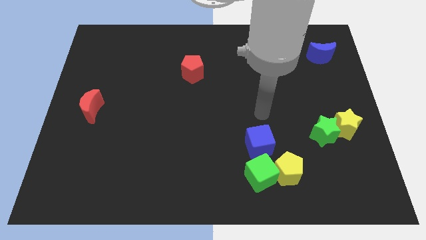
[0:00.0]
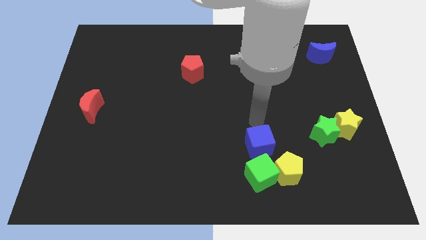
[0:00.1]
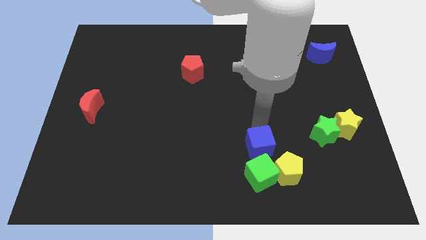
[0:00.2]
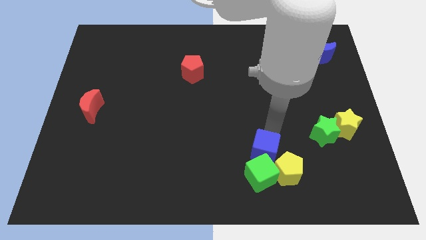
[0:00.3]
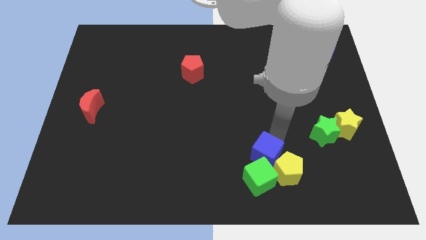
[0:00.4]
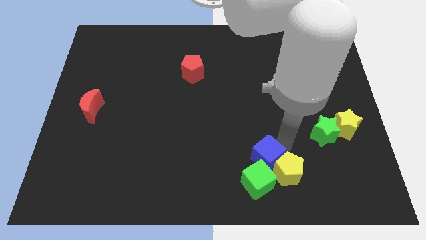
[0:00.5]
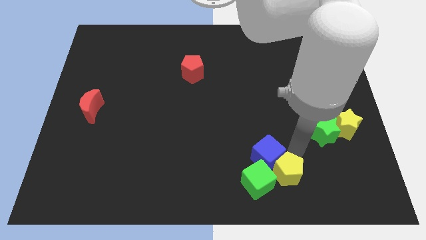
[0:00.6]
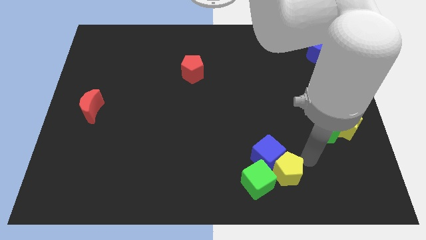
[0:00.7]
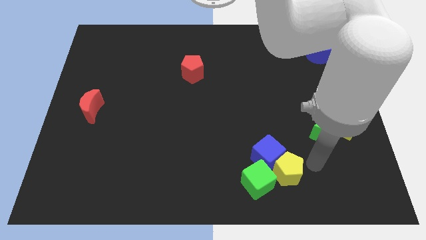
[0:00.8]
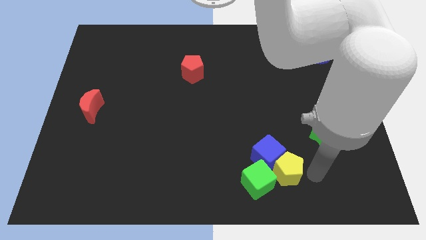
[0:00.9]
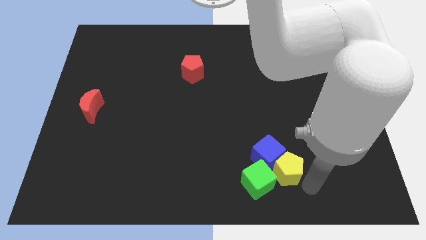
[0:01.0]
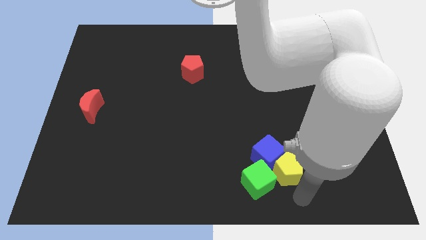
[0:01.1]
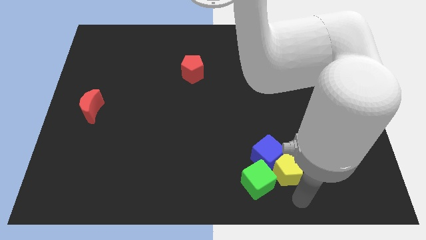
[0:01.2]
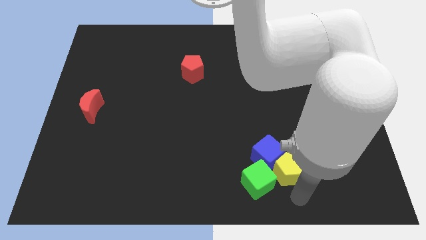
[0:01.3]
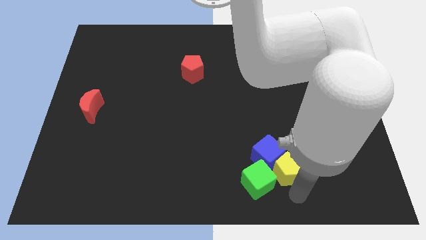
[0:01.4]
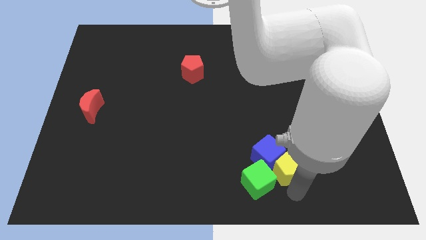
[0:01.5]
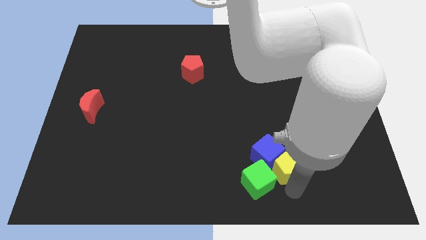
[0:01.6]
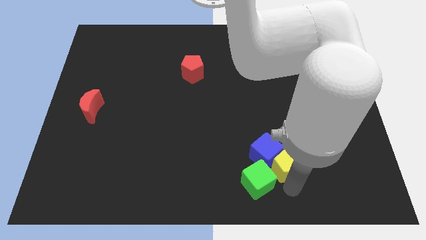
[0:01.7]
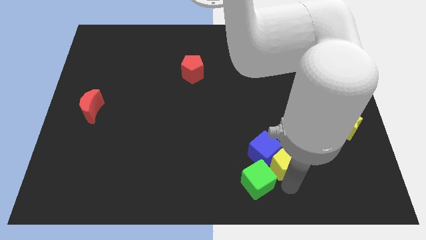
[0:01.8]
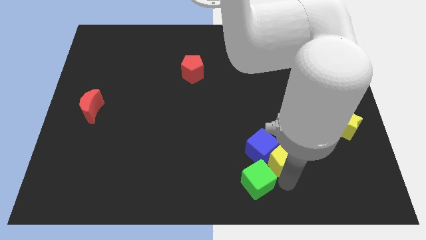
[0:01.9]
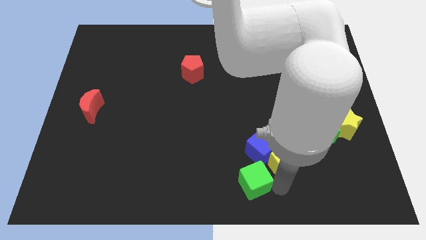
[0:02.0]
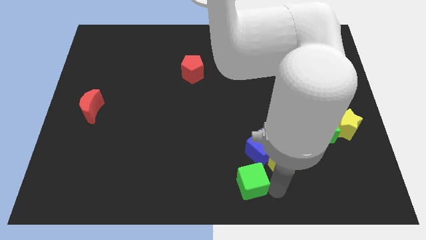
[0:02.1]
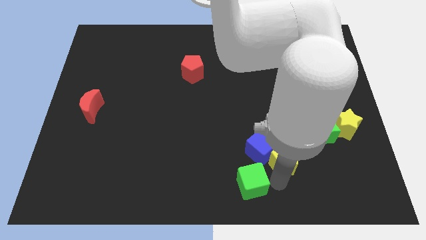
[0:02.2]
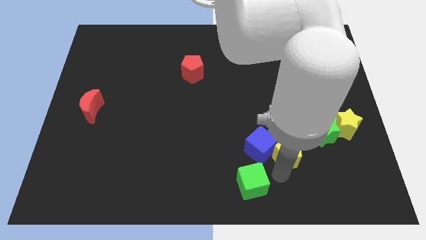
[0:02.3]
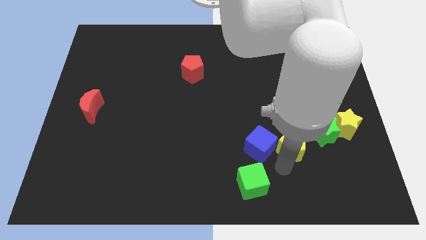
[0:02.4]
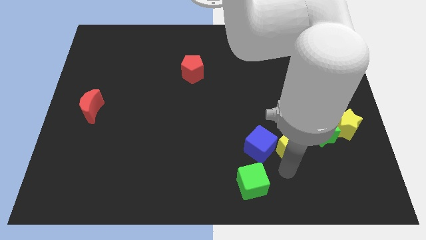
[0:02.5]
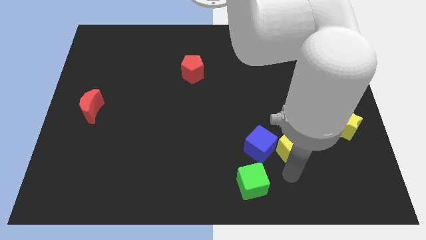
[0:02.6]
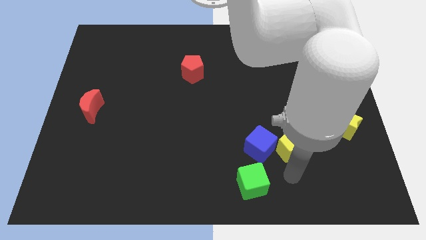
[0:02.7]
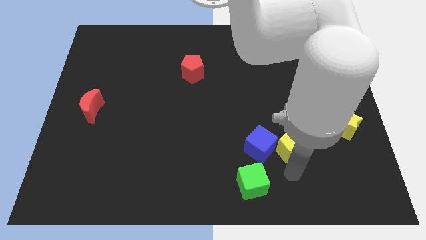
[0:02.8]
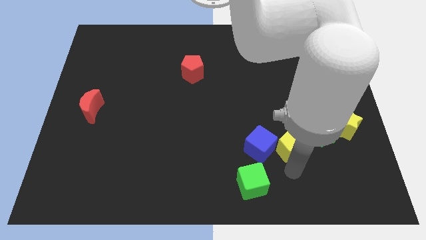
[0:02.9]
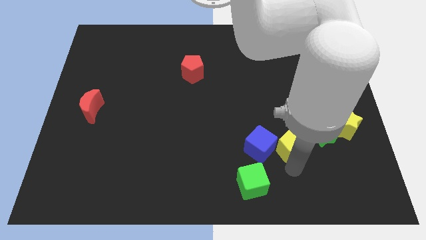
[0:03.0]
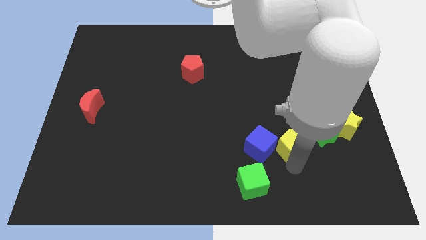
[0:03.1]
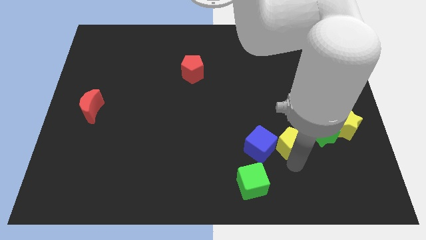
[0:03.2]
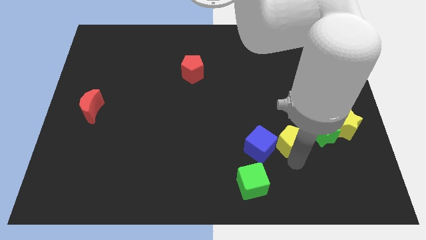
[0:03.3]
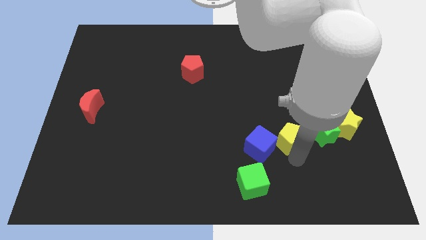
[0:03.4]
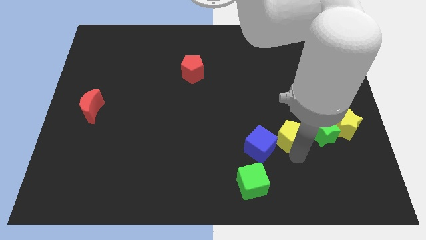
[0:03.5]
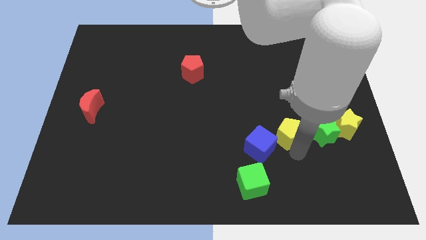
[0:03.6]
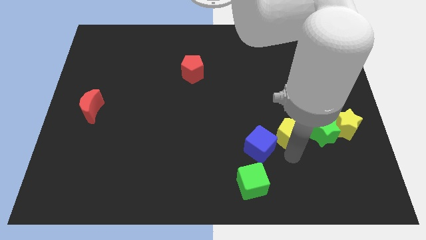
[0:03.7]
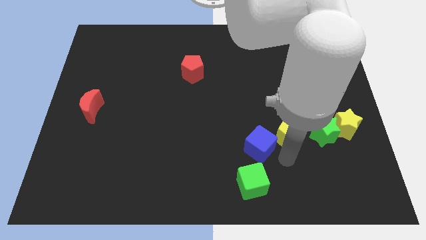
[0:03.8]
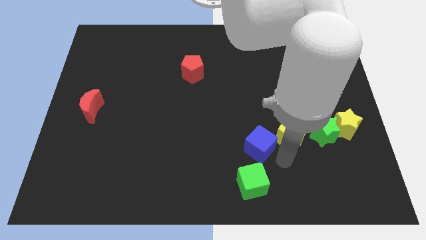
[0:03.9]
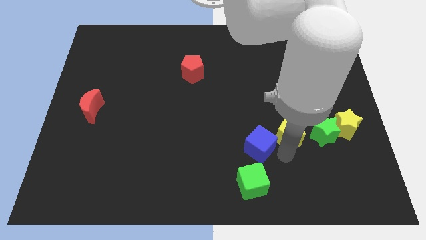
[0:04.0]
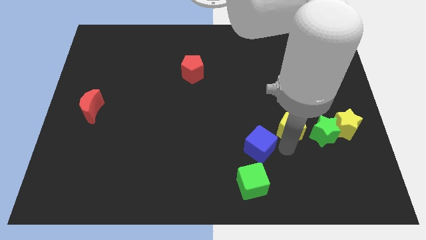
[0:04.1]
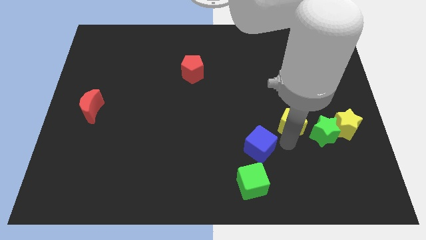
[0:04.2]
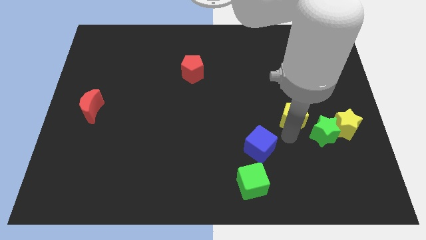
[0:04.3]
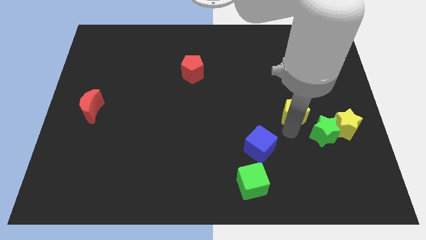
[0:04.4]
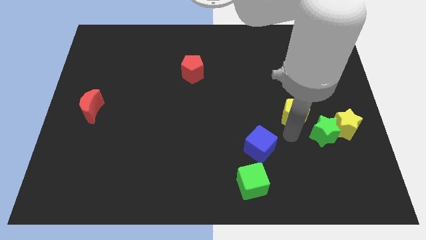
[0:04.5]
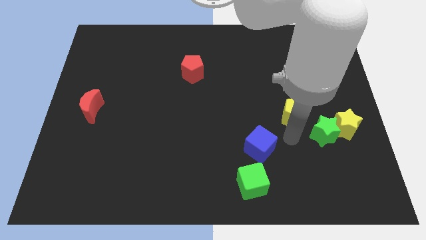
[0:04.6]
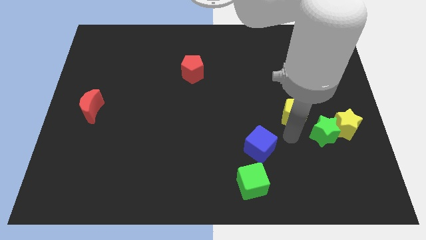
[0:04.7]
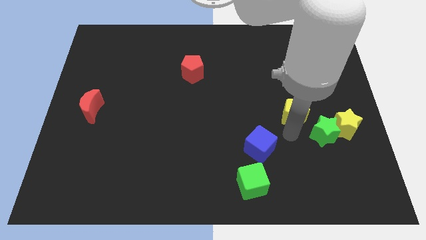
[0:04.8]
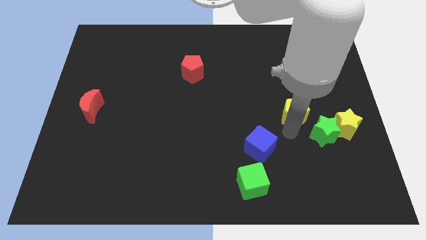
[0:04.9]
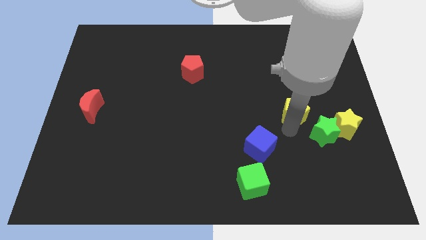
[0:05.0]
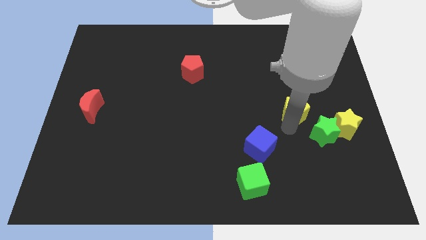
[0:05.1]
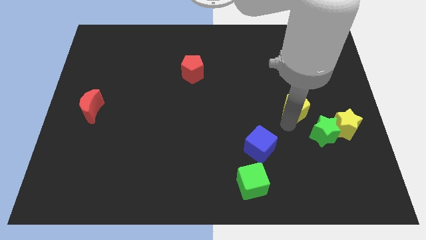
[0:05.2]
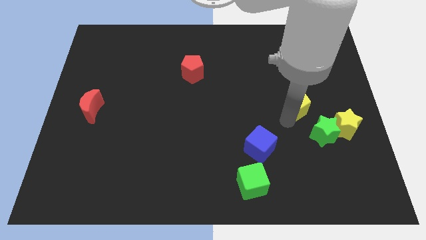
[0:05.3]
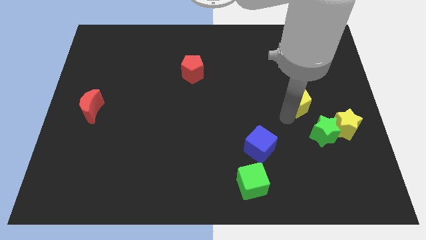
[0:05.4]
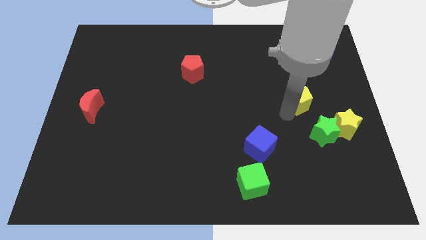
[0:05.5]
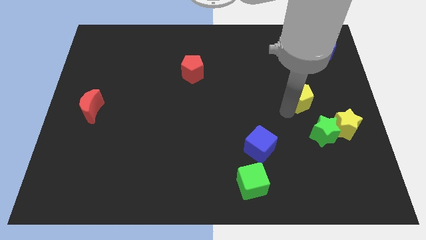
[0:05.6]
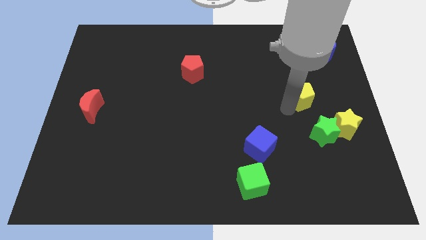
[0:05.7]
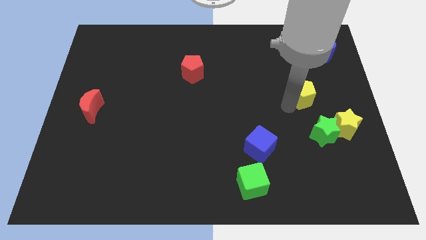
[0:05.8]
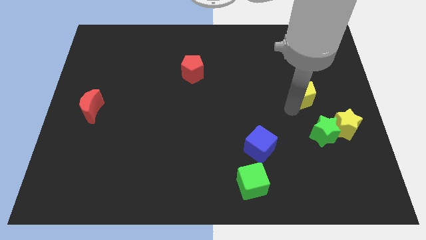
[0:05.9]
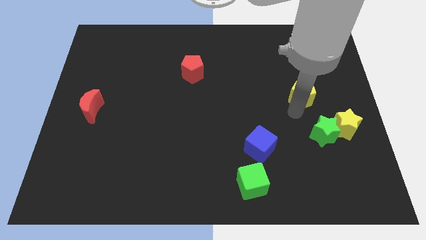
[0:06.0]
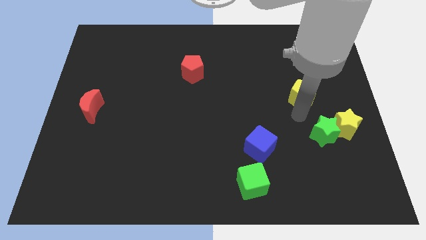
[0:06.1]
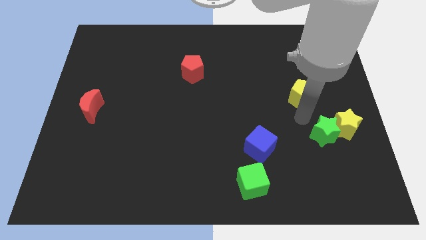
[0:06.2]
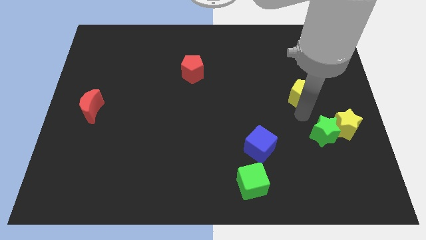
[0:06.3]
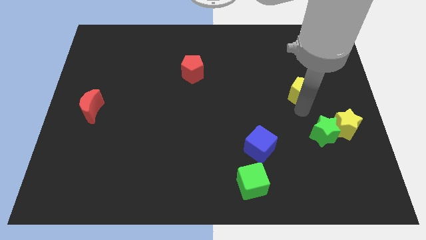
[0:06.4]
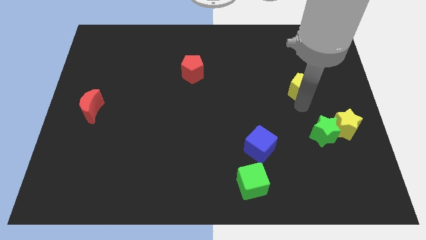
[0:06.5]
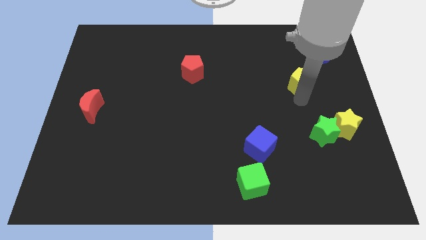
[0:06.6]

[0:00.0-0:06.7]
move the yellow pentagon to the bottom left of the blue moon

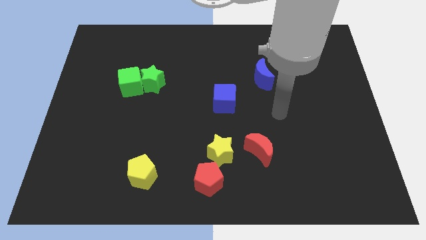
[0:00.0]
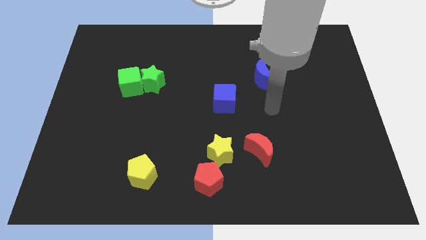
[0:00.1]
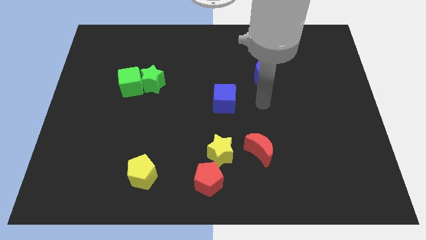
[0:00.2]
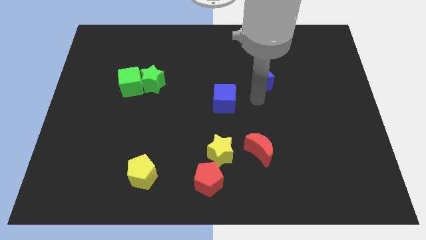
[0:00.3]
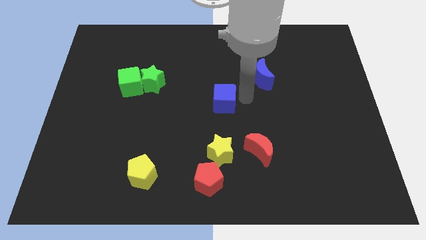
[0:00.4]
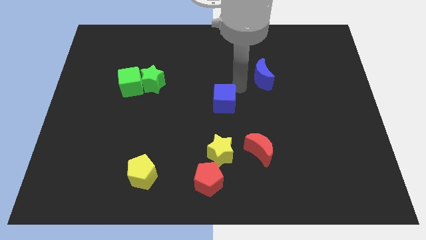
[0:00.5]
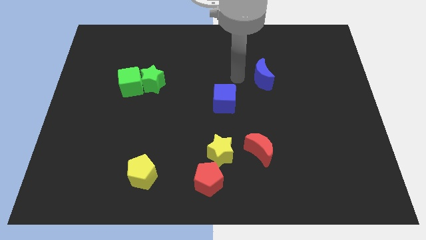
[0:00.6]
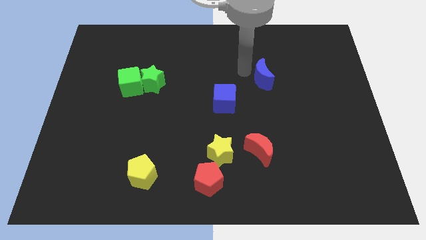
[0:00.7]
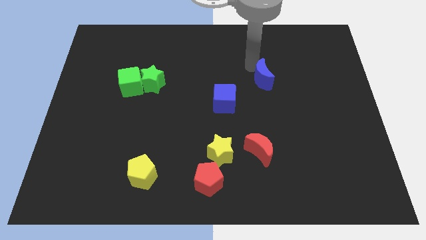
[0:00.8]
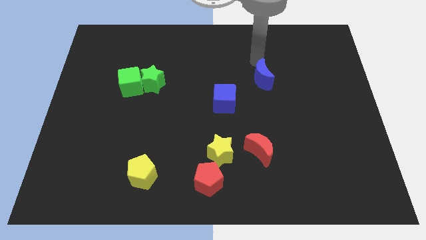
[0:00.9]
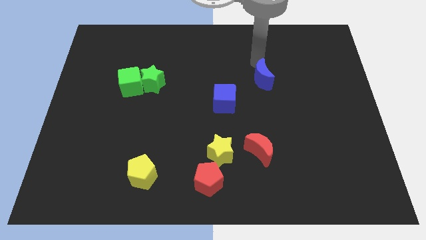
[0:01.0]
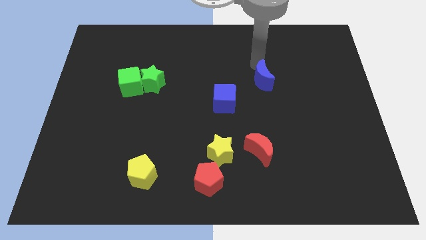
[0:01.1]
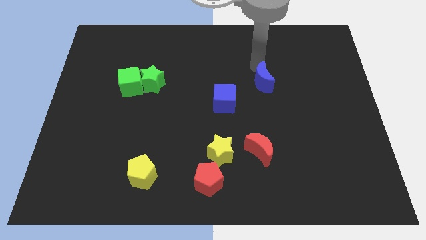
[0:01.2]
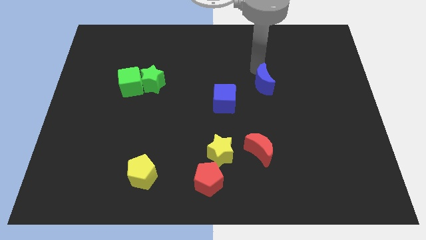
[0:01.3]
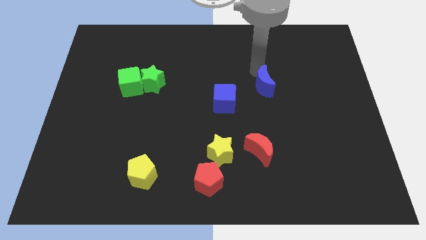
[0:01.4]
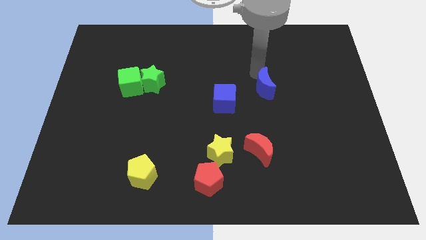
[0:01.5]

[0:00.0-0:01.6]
move the blue moon to the right side of the blue cube

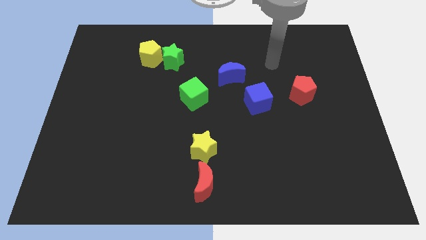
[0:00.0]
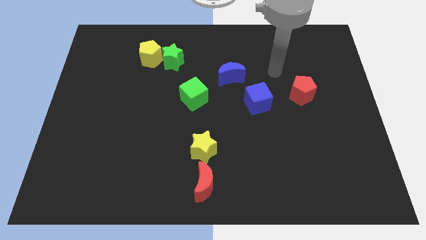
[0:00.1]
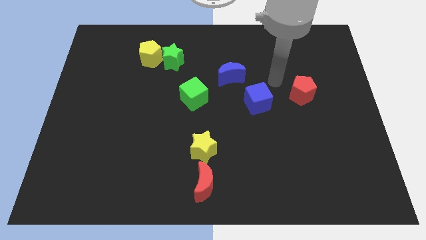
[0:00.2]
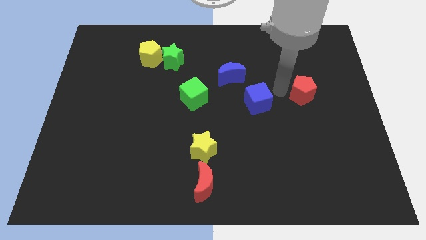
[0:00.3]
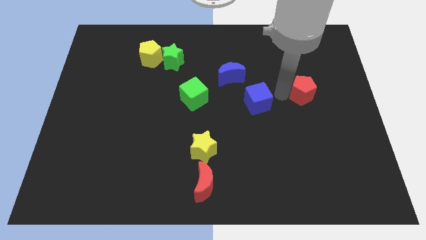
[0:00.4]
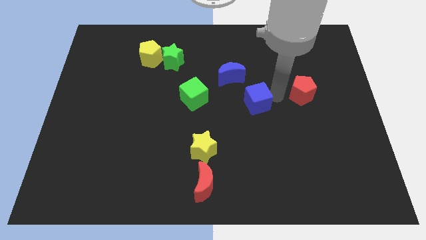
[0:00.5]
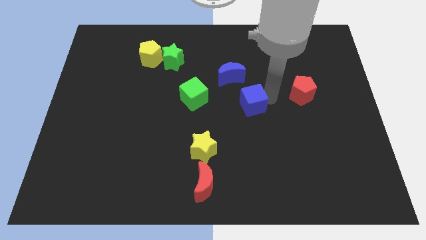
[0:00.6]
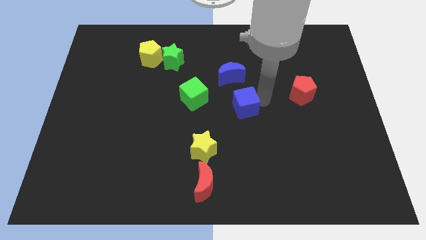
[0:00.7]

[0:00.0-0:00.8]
push the blue cube below the blue moon
